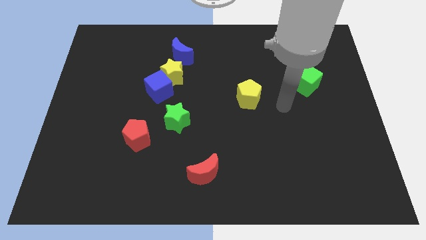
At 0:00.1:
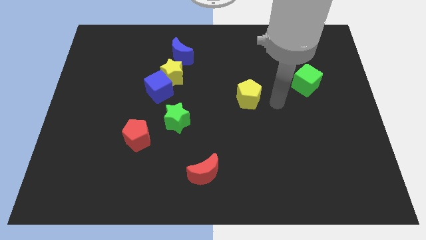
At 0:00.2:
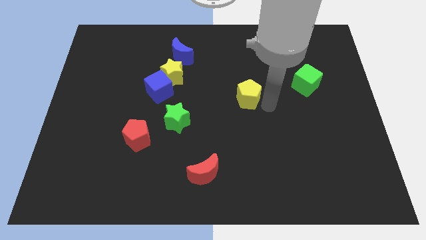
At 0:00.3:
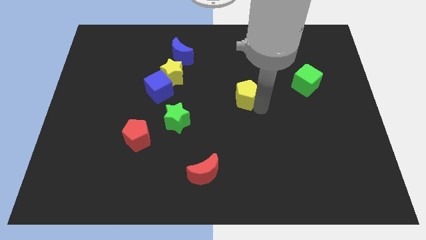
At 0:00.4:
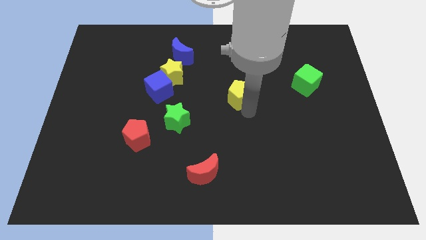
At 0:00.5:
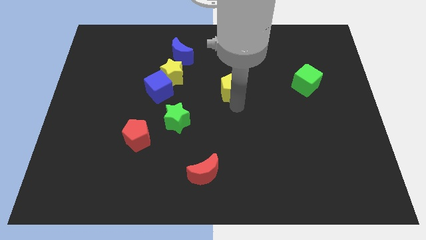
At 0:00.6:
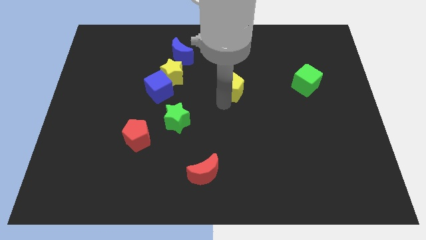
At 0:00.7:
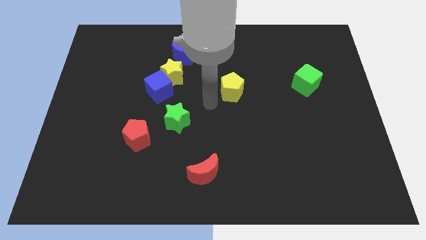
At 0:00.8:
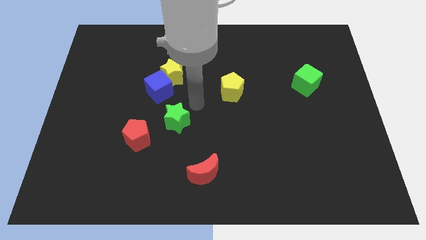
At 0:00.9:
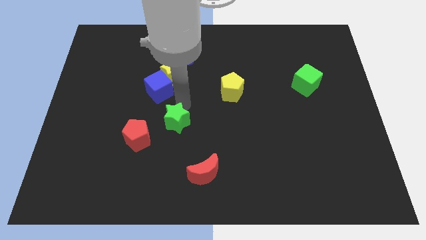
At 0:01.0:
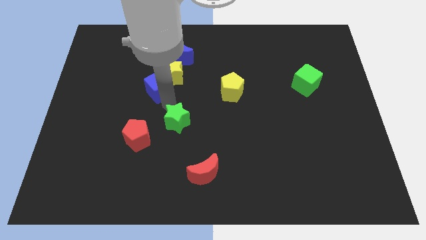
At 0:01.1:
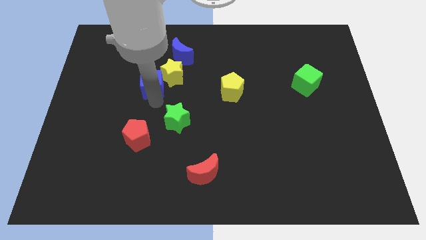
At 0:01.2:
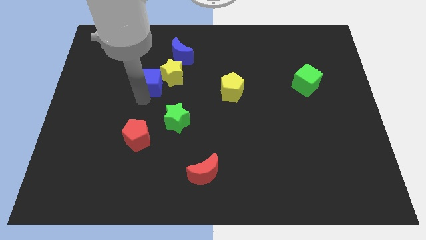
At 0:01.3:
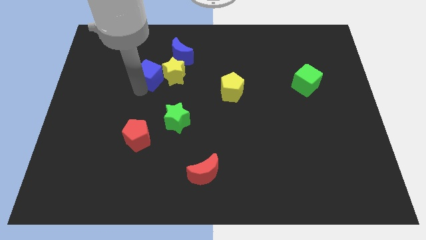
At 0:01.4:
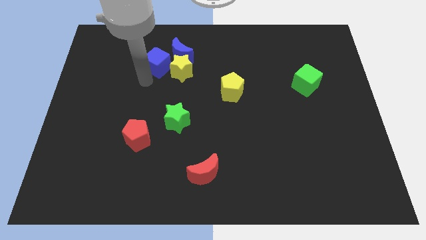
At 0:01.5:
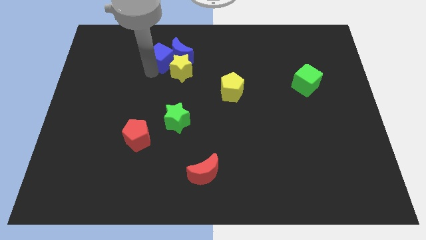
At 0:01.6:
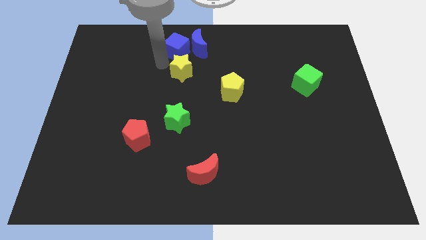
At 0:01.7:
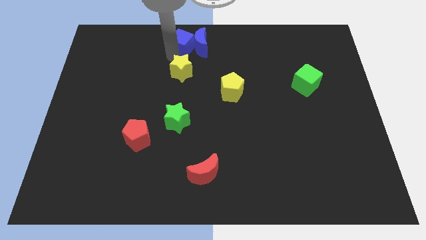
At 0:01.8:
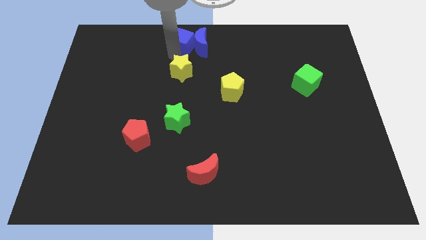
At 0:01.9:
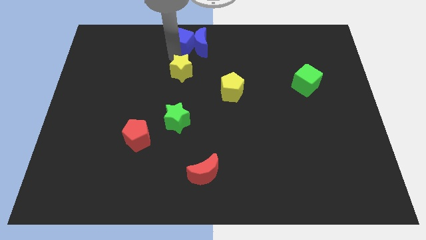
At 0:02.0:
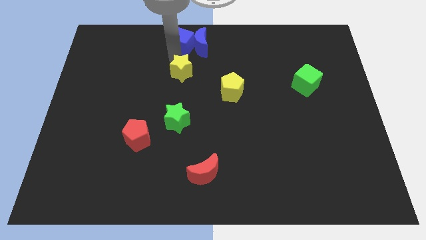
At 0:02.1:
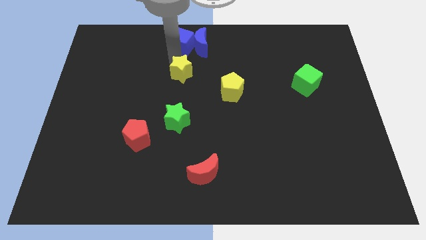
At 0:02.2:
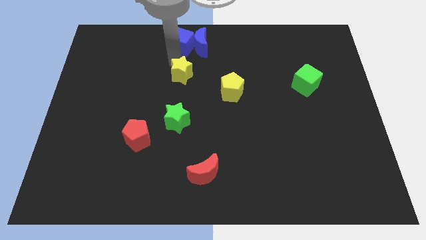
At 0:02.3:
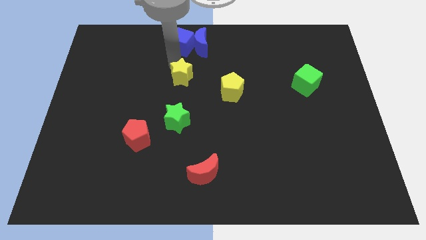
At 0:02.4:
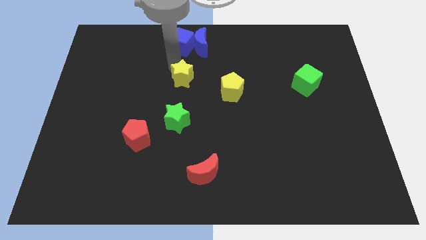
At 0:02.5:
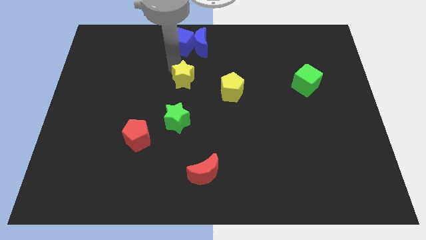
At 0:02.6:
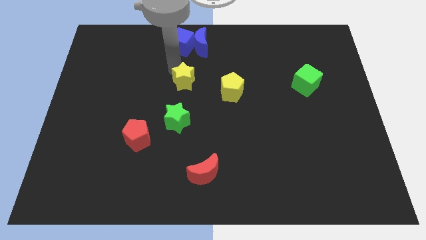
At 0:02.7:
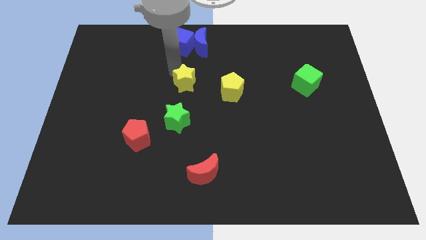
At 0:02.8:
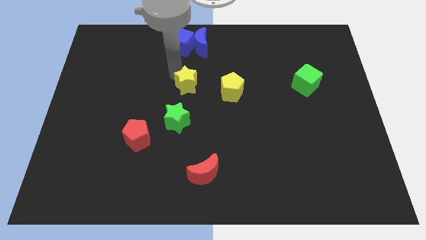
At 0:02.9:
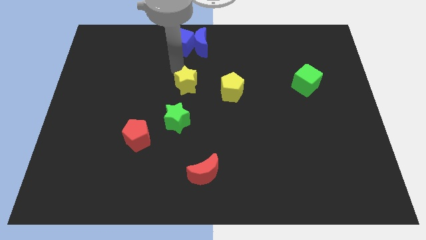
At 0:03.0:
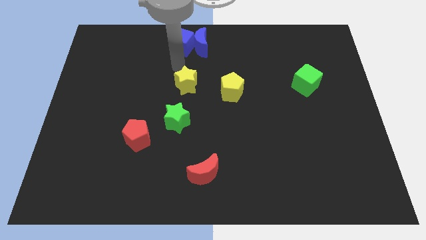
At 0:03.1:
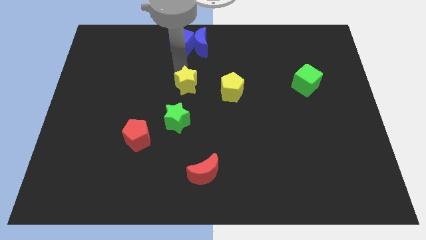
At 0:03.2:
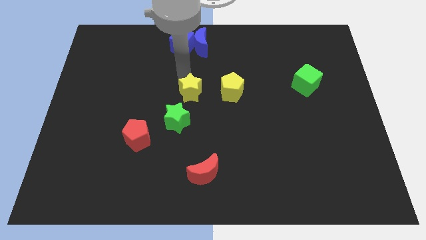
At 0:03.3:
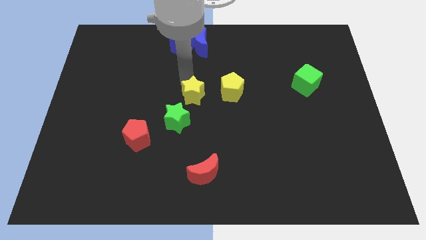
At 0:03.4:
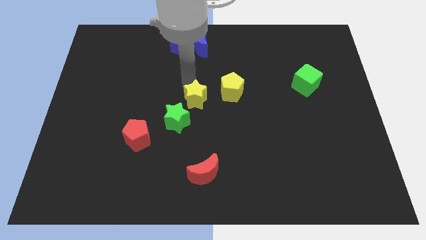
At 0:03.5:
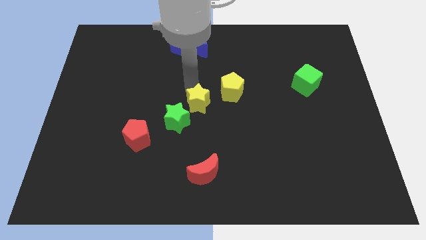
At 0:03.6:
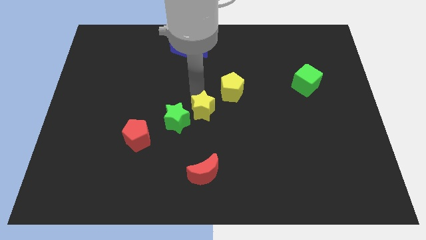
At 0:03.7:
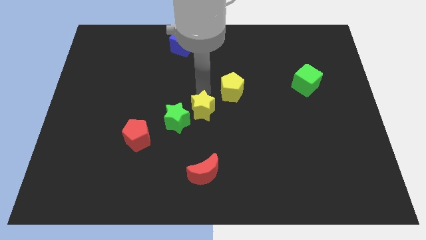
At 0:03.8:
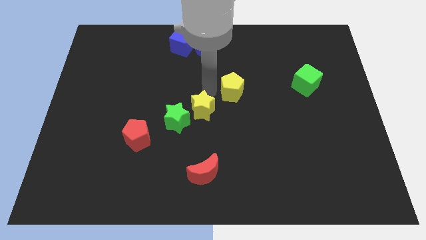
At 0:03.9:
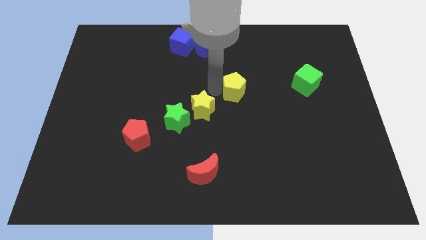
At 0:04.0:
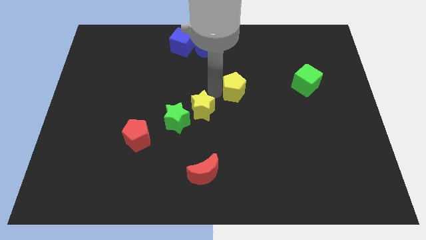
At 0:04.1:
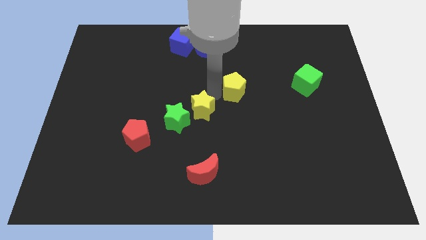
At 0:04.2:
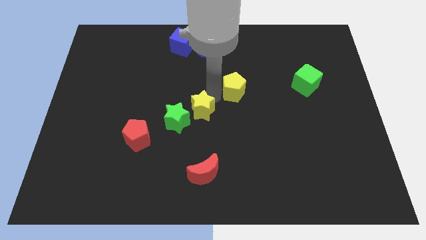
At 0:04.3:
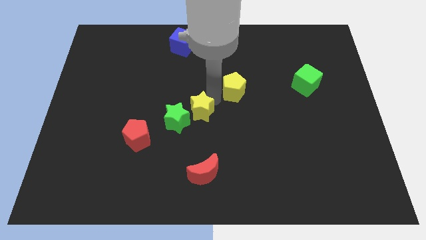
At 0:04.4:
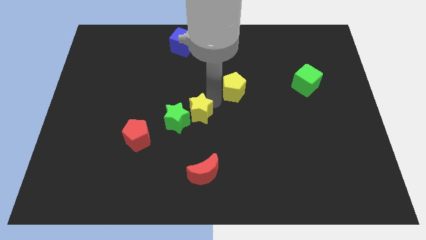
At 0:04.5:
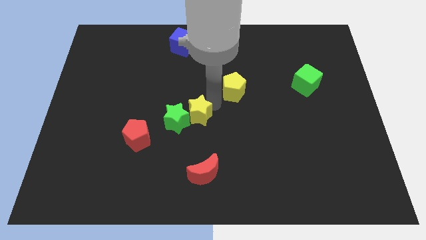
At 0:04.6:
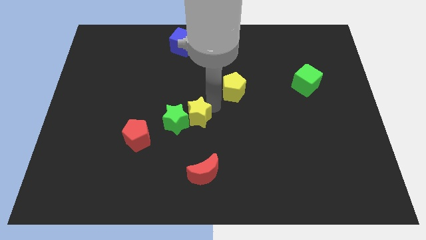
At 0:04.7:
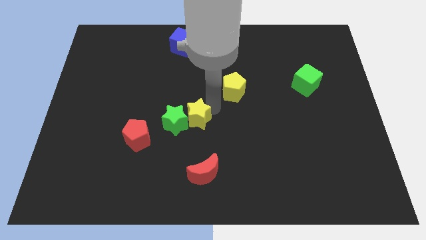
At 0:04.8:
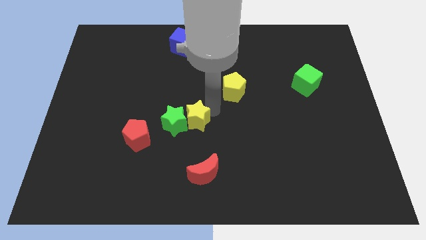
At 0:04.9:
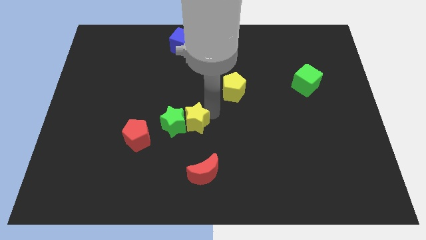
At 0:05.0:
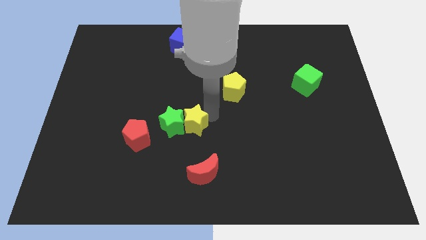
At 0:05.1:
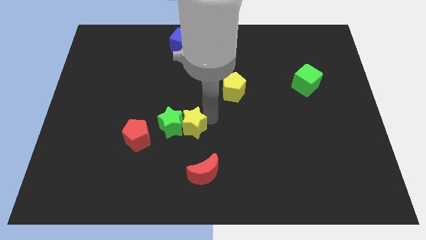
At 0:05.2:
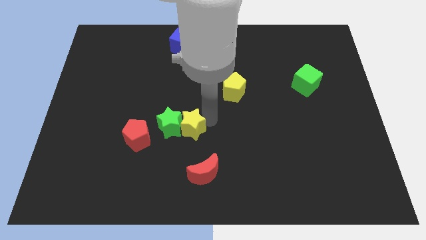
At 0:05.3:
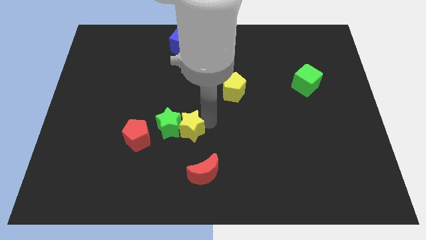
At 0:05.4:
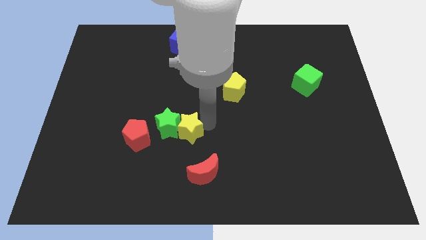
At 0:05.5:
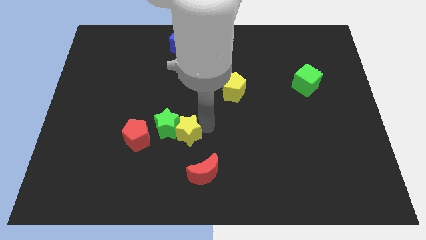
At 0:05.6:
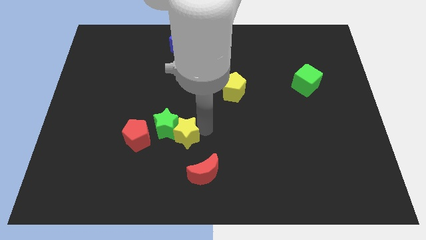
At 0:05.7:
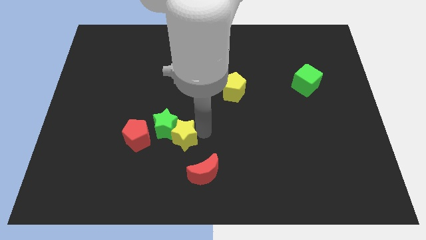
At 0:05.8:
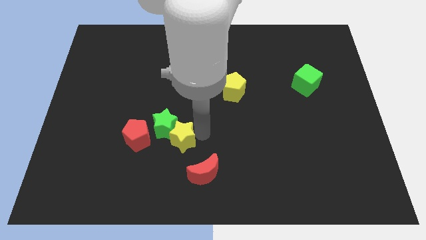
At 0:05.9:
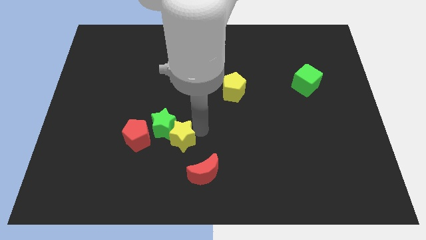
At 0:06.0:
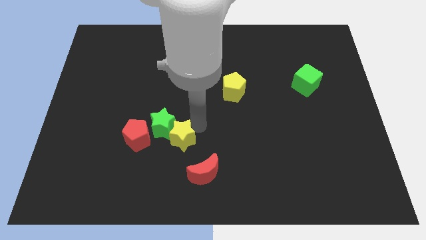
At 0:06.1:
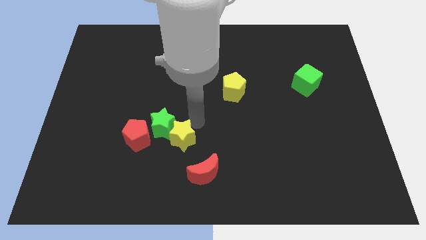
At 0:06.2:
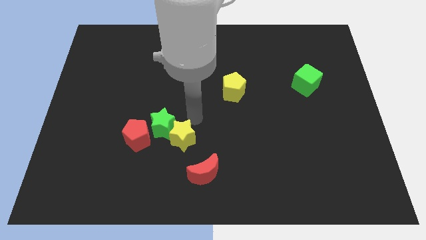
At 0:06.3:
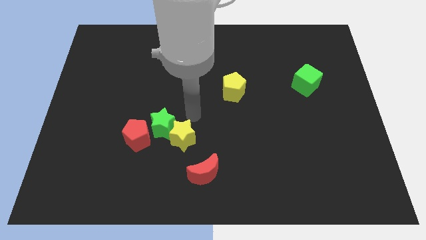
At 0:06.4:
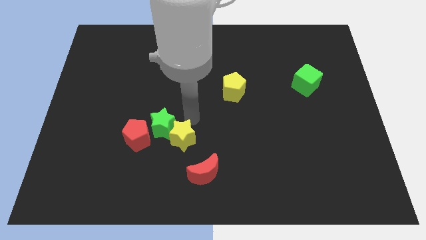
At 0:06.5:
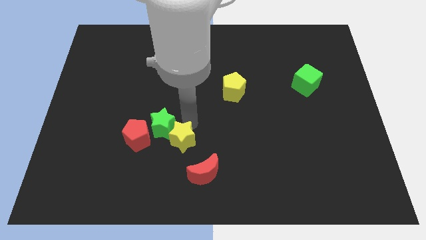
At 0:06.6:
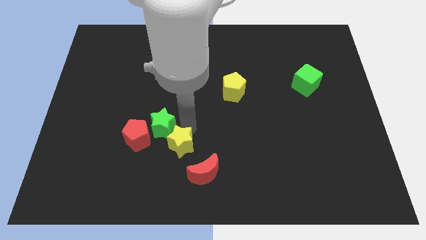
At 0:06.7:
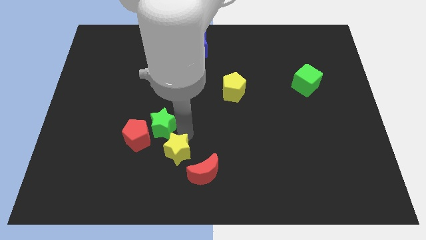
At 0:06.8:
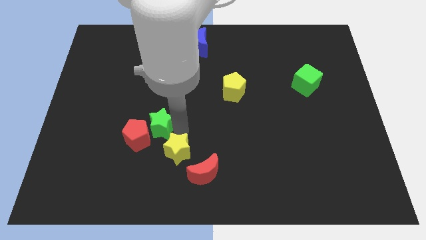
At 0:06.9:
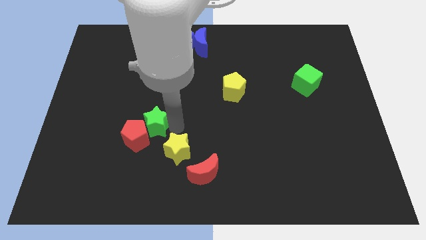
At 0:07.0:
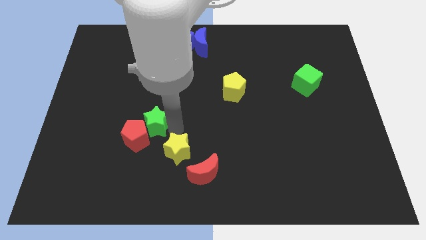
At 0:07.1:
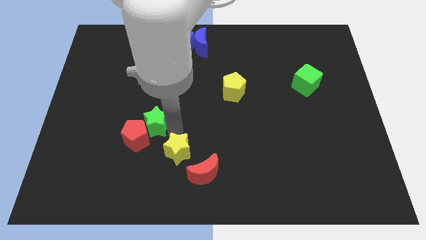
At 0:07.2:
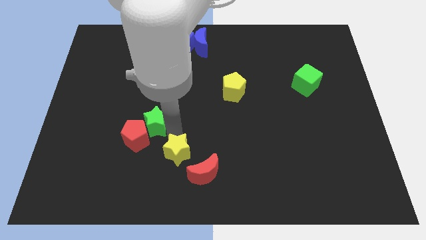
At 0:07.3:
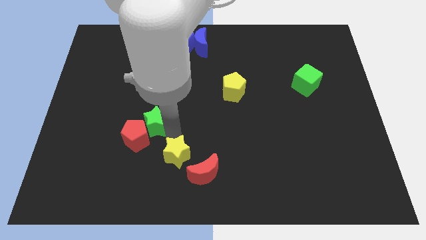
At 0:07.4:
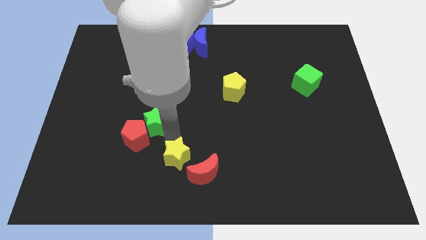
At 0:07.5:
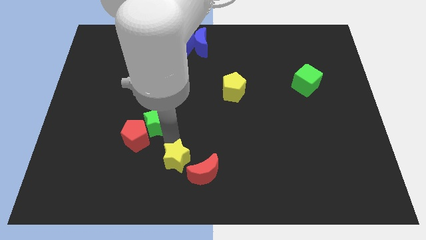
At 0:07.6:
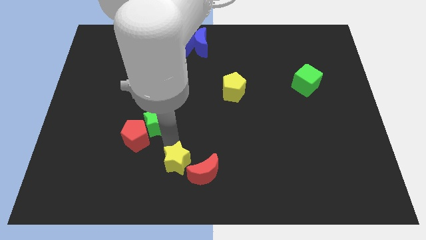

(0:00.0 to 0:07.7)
slide the yellow star to the bottom side
